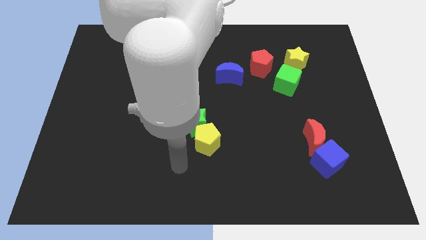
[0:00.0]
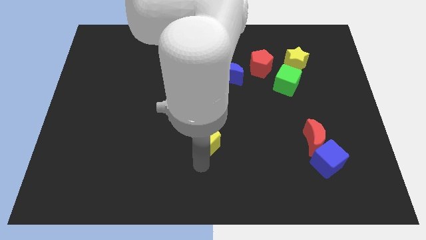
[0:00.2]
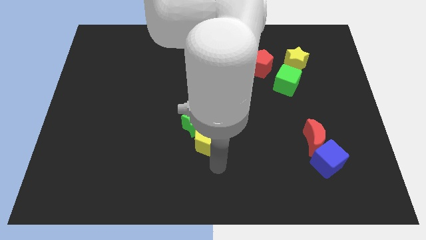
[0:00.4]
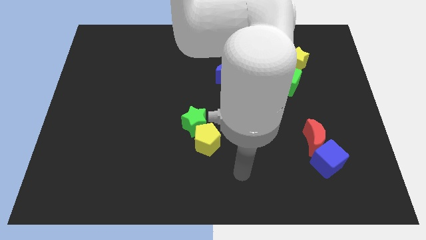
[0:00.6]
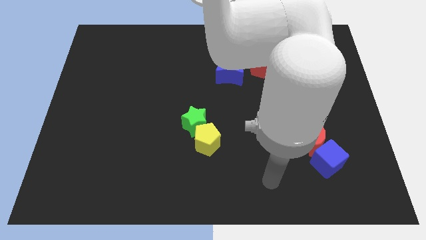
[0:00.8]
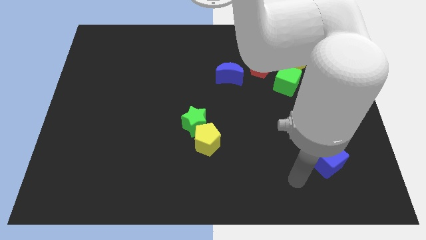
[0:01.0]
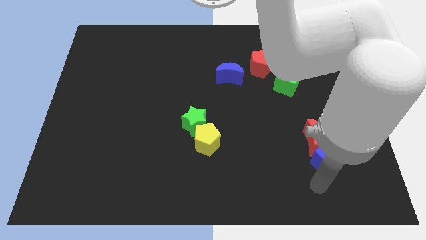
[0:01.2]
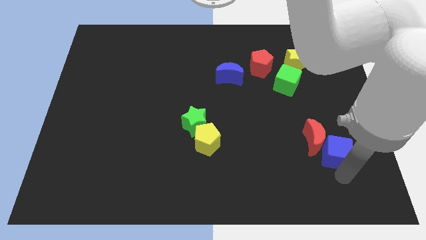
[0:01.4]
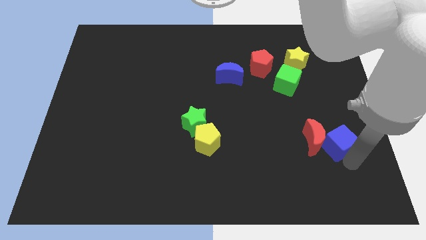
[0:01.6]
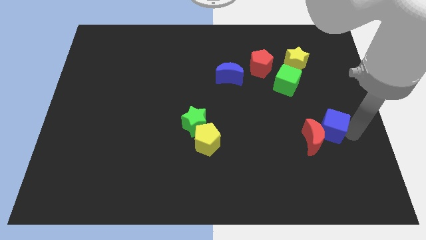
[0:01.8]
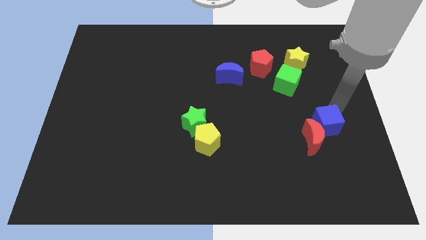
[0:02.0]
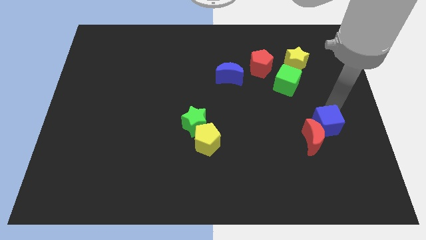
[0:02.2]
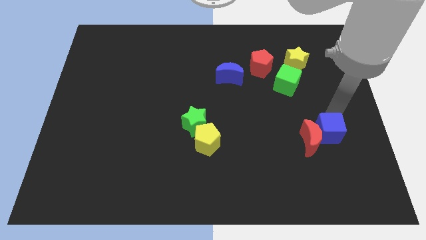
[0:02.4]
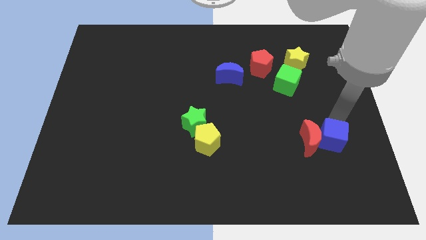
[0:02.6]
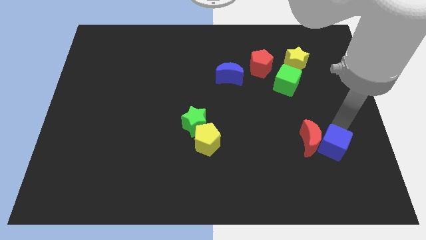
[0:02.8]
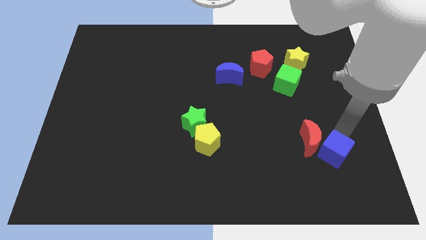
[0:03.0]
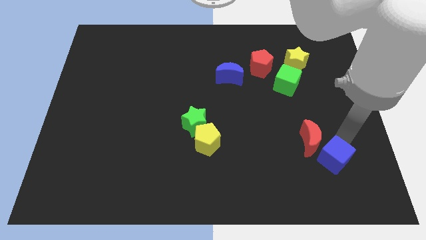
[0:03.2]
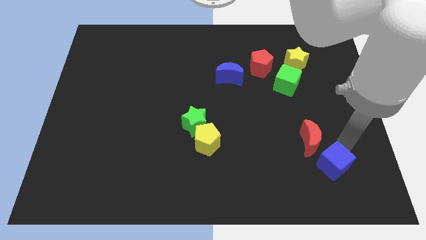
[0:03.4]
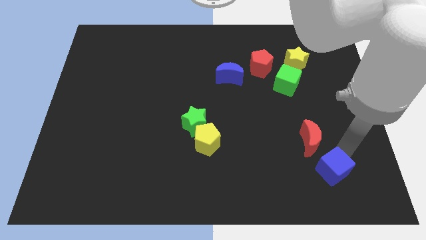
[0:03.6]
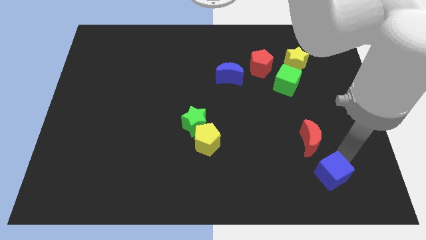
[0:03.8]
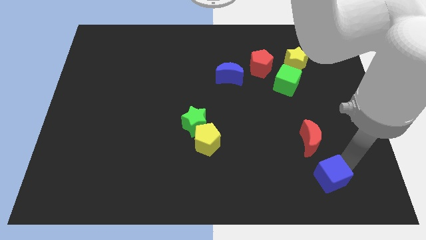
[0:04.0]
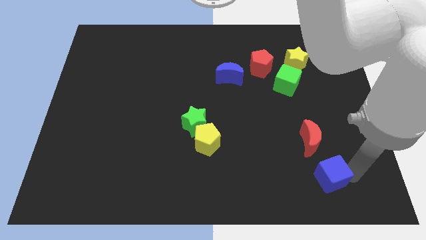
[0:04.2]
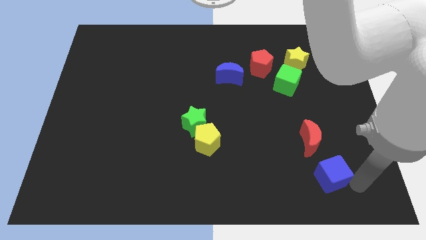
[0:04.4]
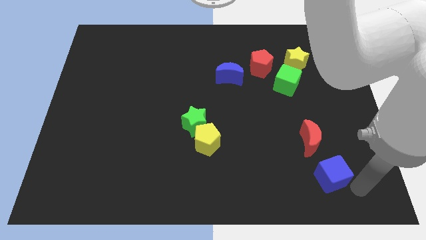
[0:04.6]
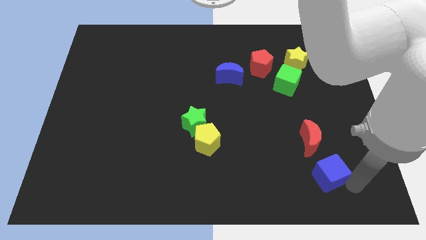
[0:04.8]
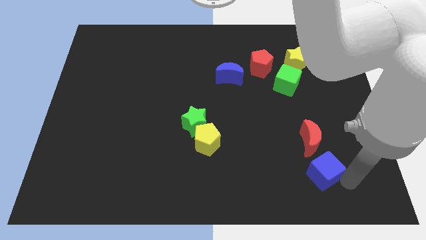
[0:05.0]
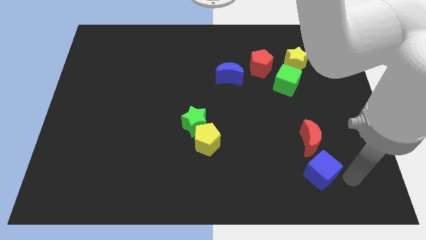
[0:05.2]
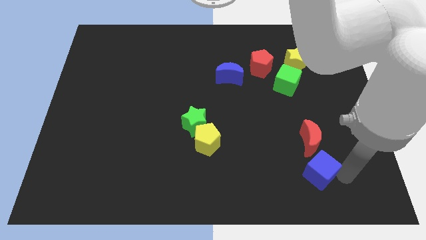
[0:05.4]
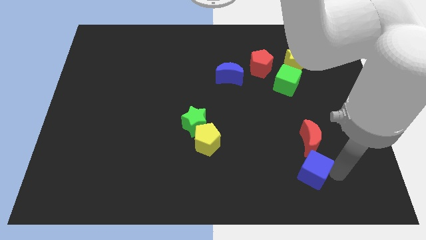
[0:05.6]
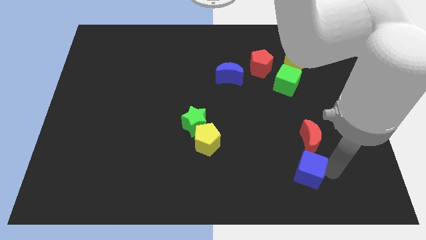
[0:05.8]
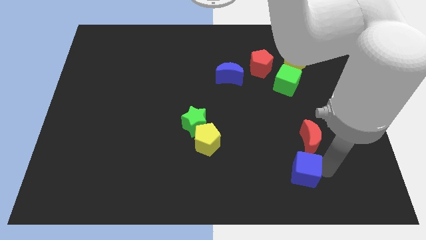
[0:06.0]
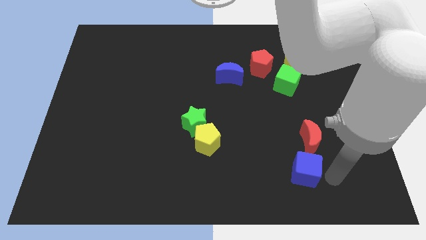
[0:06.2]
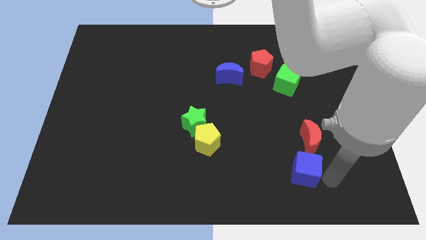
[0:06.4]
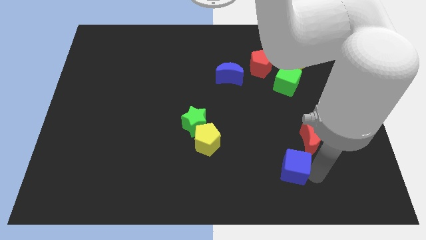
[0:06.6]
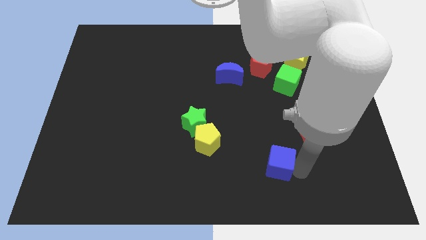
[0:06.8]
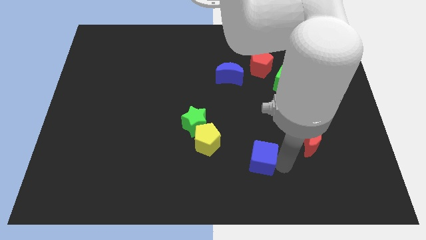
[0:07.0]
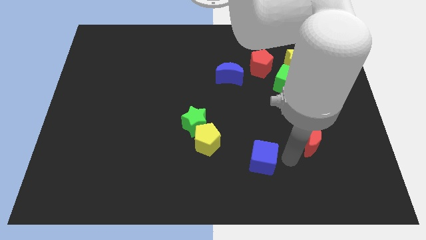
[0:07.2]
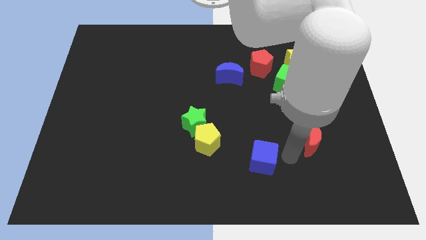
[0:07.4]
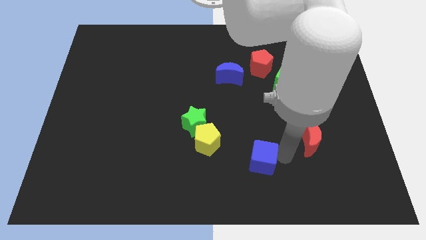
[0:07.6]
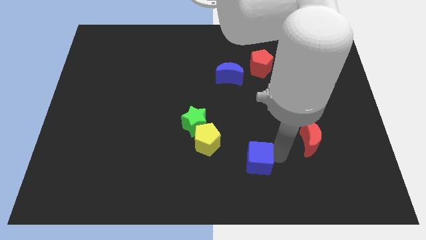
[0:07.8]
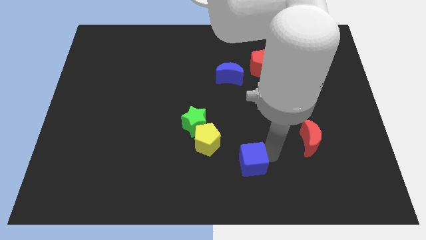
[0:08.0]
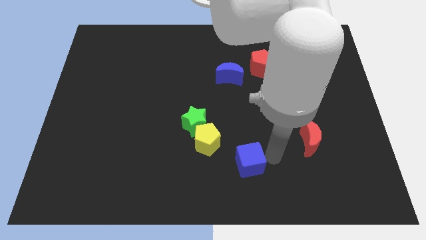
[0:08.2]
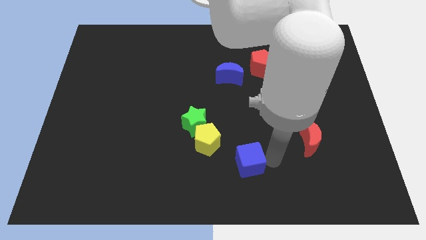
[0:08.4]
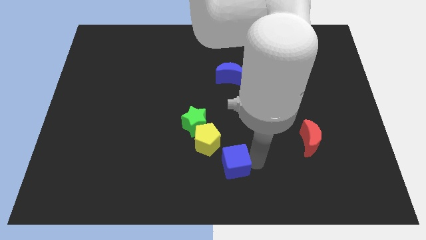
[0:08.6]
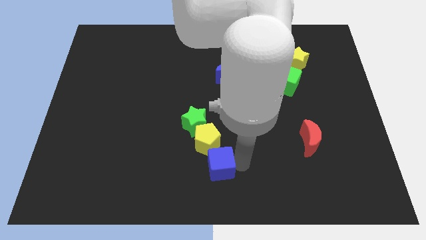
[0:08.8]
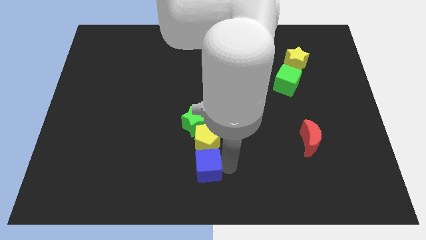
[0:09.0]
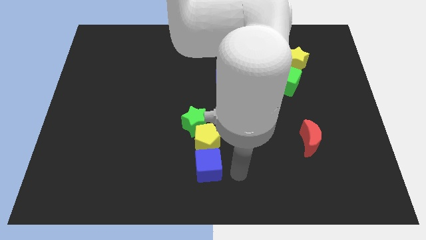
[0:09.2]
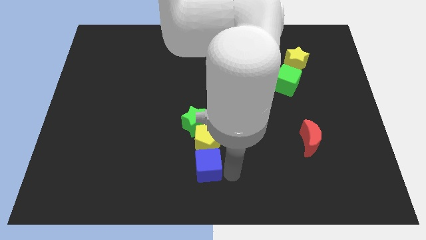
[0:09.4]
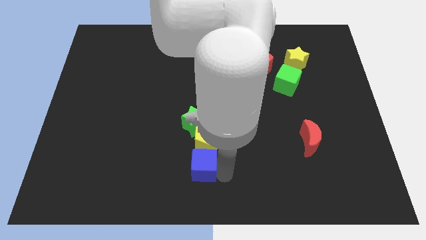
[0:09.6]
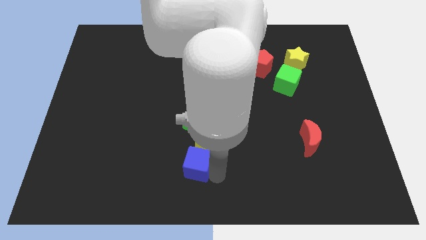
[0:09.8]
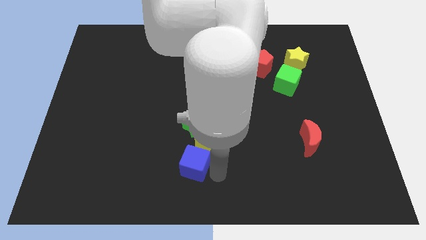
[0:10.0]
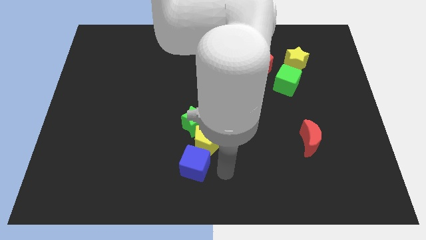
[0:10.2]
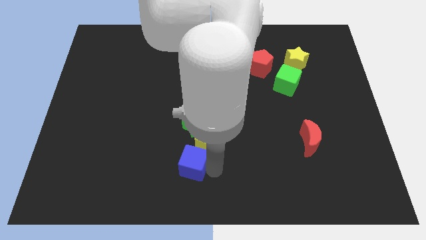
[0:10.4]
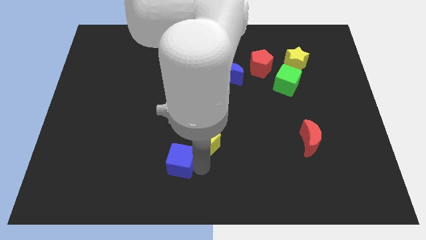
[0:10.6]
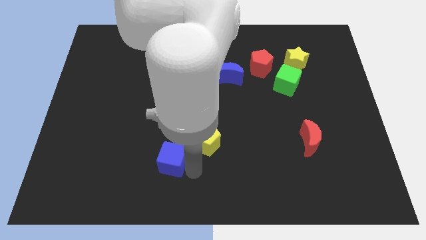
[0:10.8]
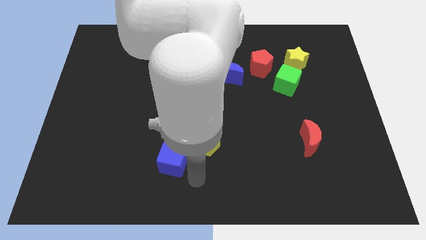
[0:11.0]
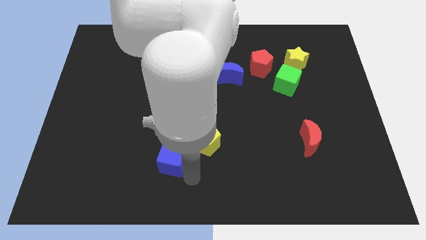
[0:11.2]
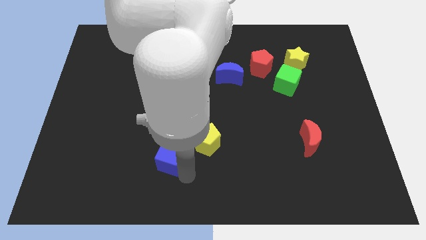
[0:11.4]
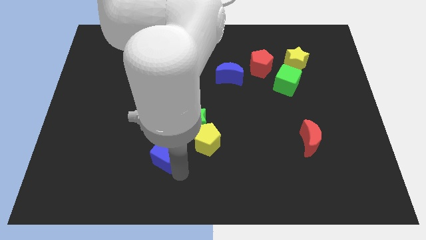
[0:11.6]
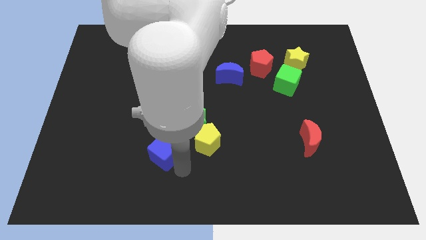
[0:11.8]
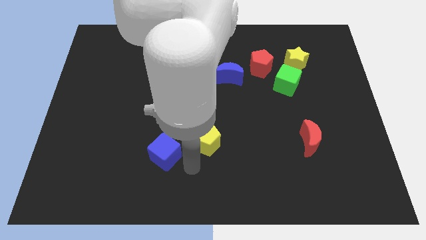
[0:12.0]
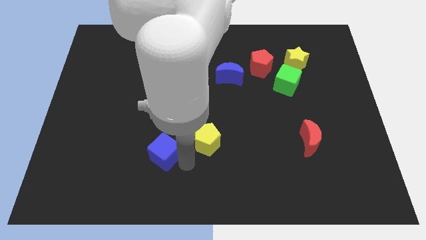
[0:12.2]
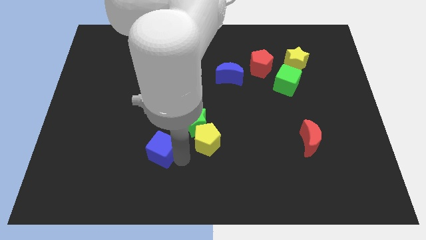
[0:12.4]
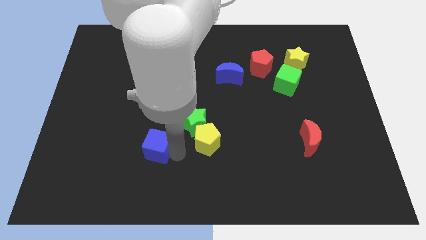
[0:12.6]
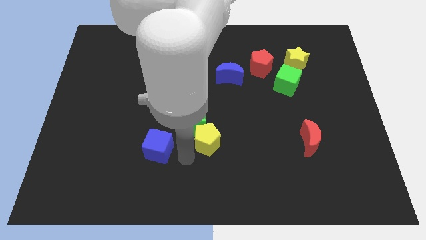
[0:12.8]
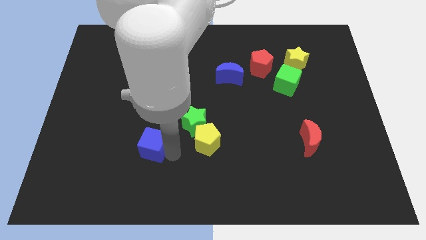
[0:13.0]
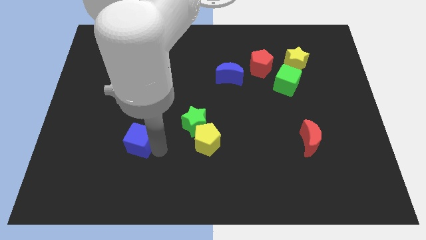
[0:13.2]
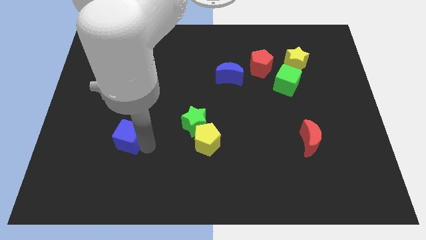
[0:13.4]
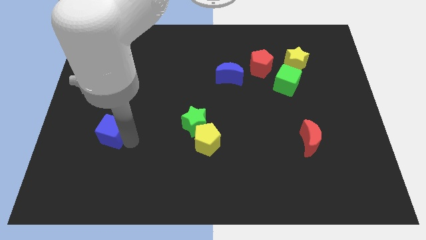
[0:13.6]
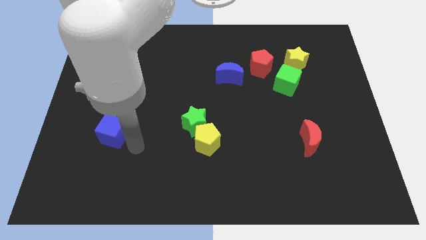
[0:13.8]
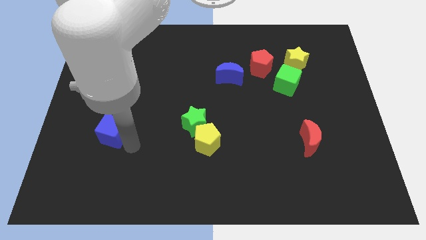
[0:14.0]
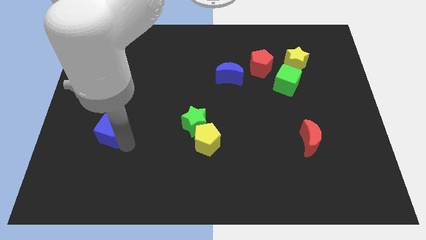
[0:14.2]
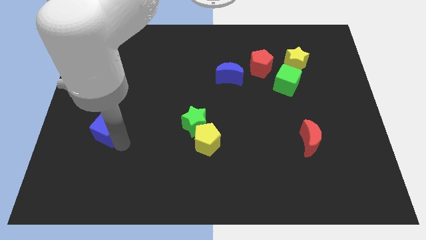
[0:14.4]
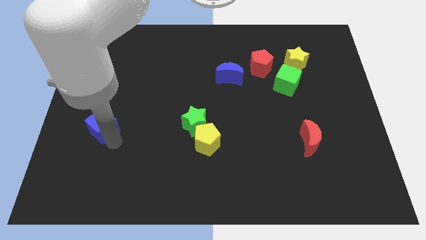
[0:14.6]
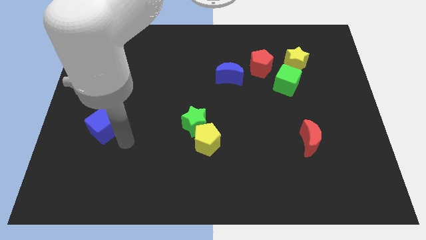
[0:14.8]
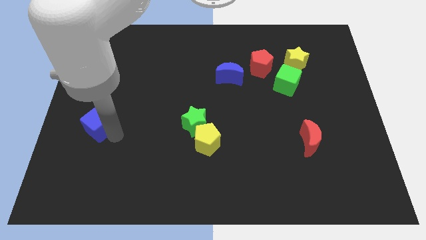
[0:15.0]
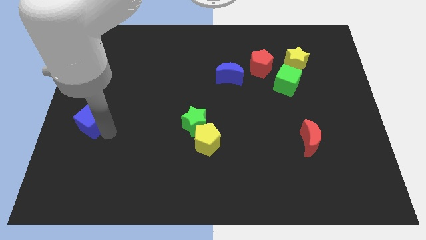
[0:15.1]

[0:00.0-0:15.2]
put the blue cube to the left side

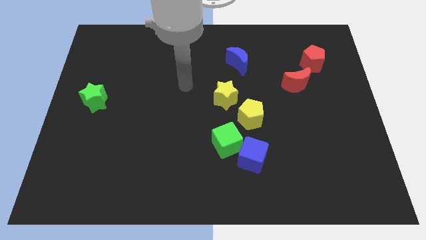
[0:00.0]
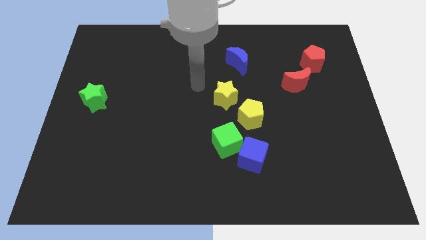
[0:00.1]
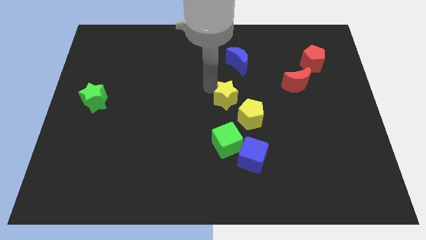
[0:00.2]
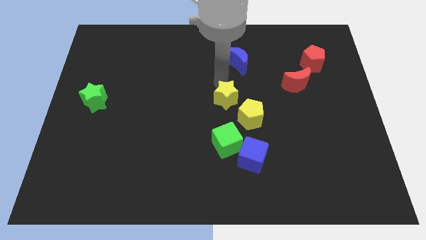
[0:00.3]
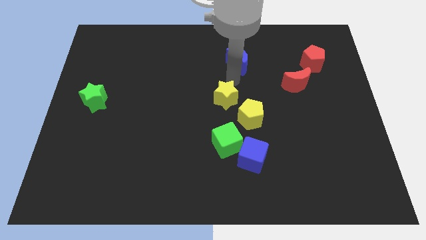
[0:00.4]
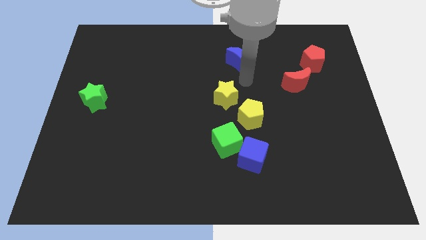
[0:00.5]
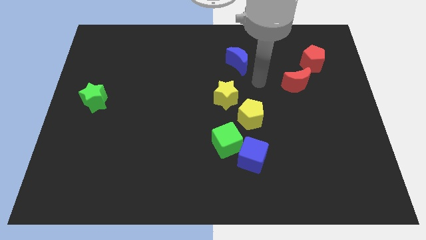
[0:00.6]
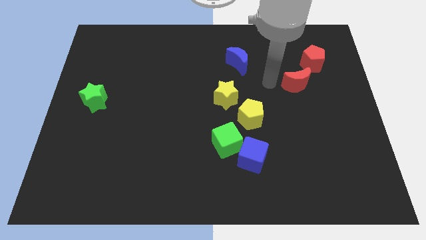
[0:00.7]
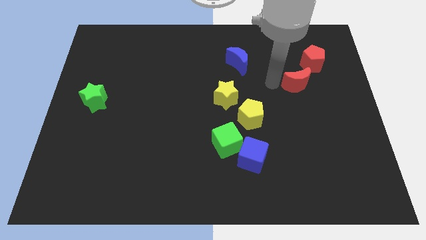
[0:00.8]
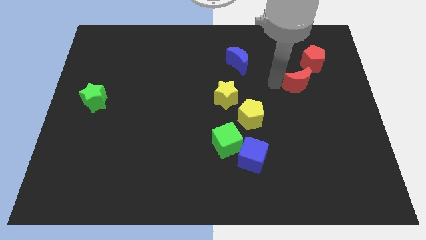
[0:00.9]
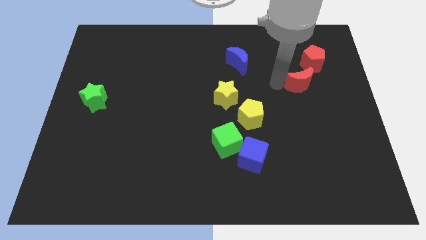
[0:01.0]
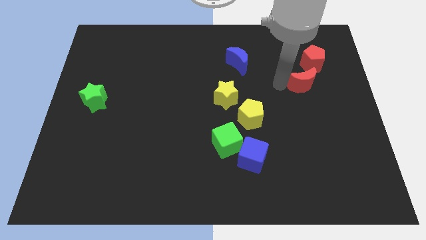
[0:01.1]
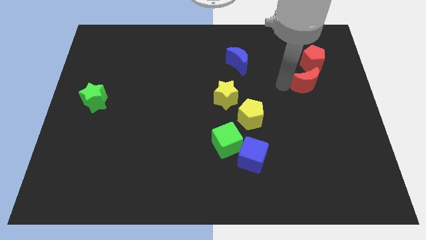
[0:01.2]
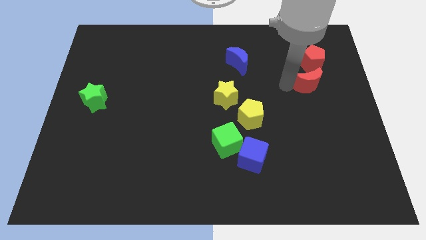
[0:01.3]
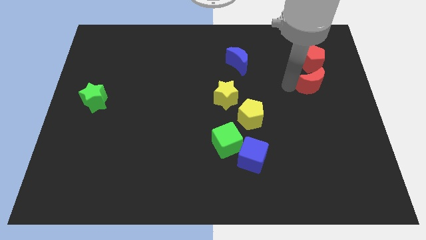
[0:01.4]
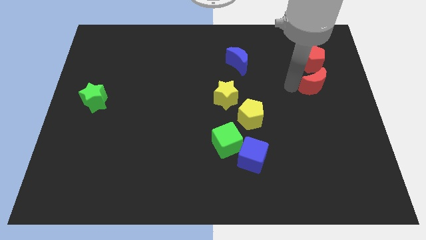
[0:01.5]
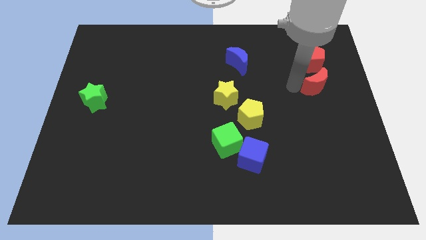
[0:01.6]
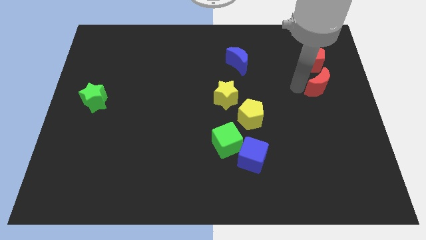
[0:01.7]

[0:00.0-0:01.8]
move the red moon to the right side
